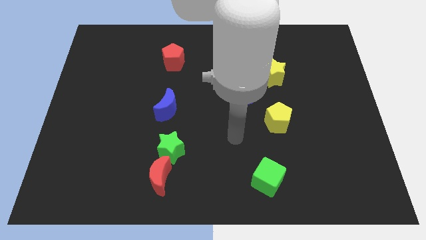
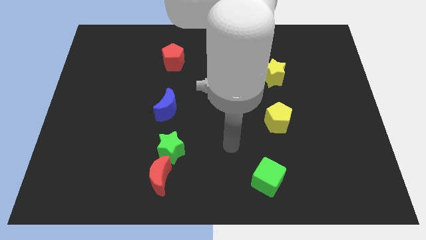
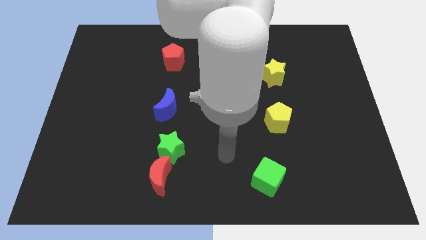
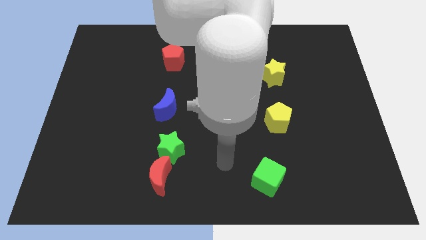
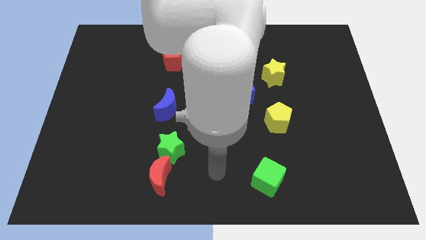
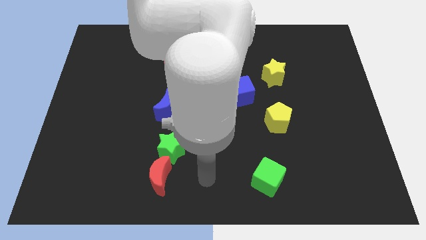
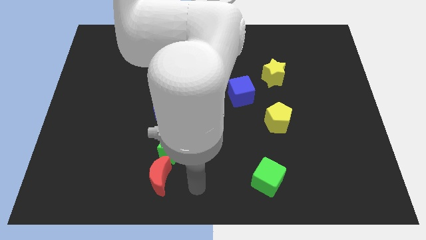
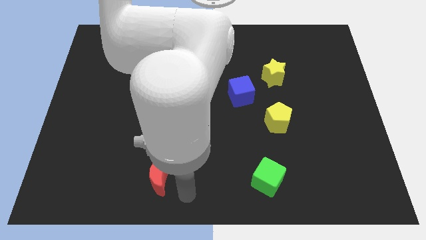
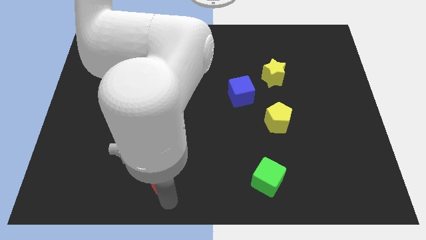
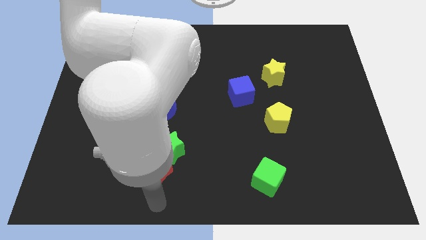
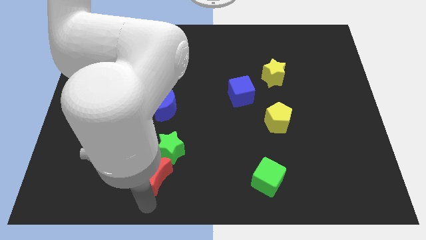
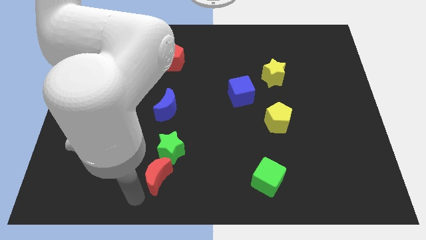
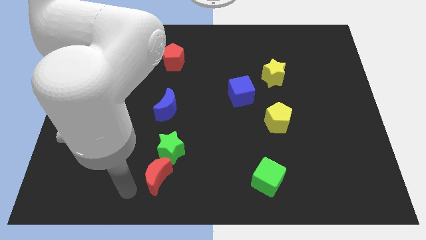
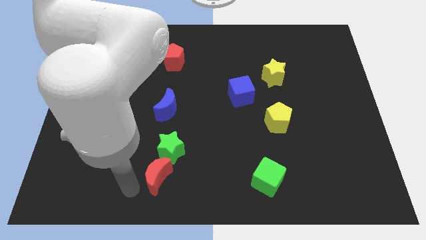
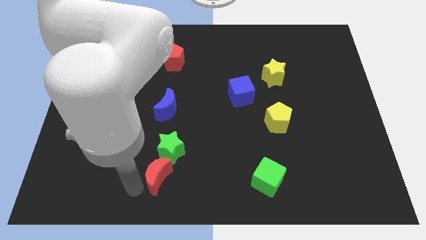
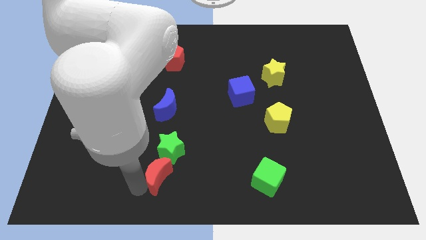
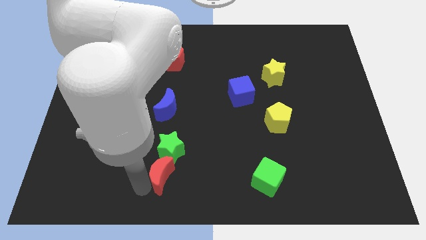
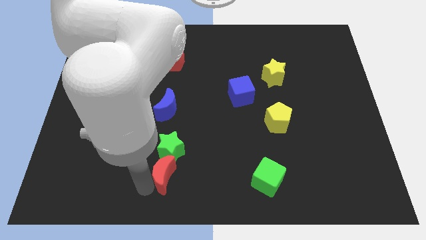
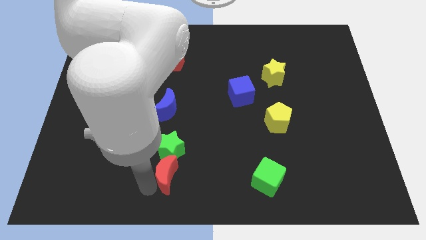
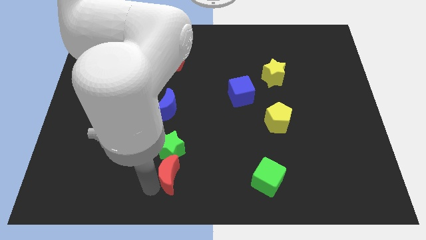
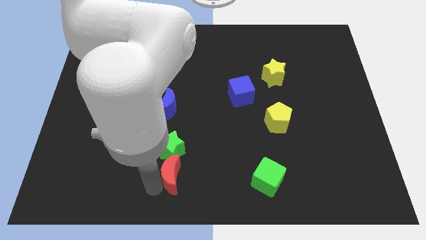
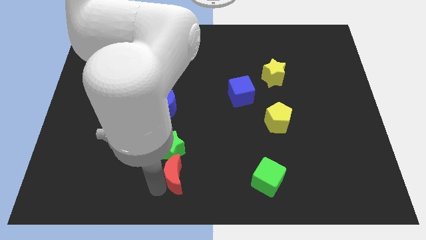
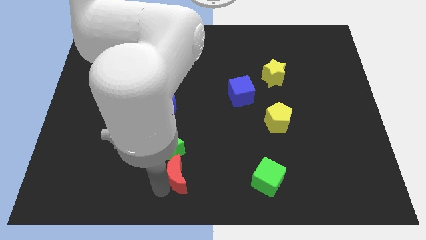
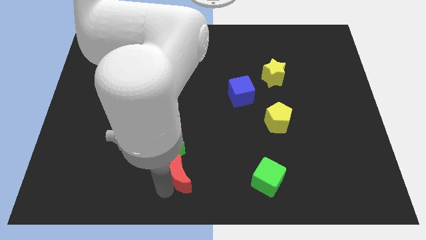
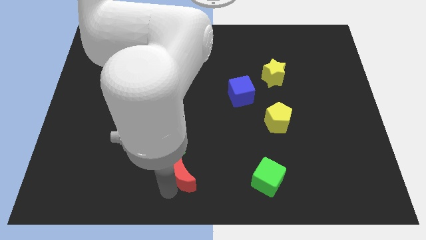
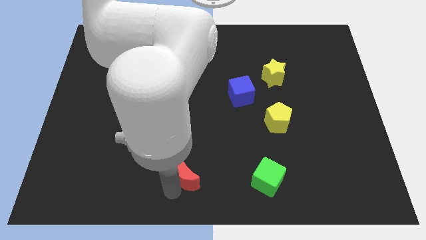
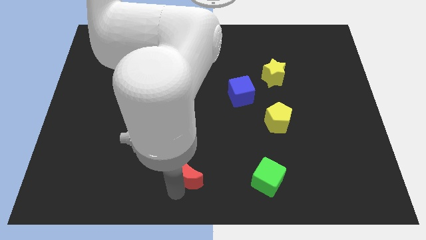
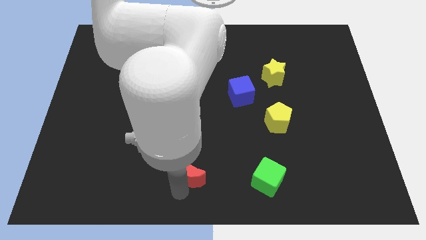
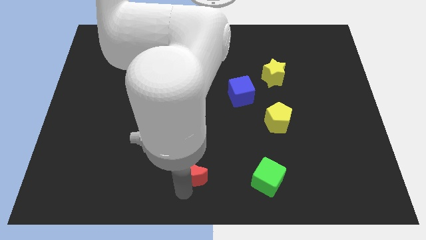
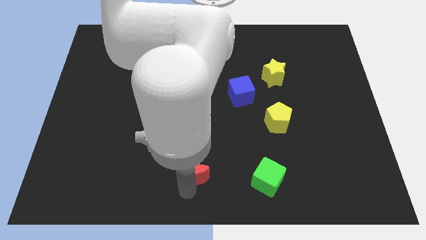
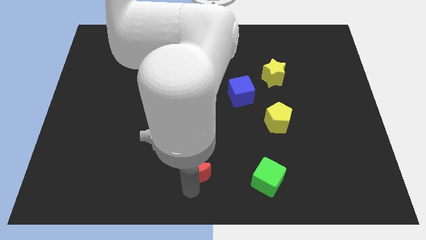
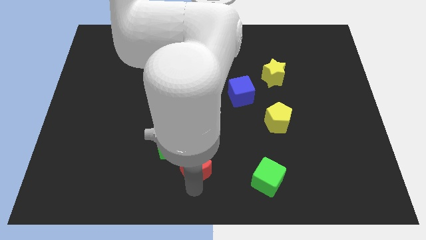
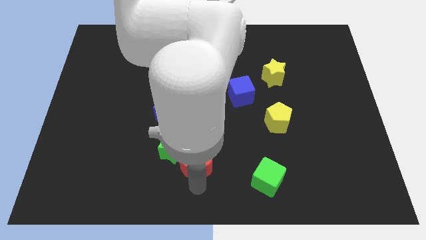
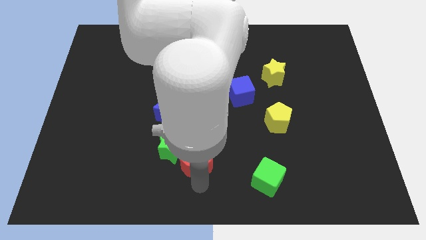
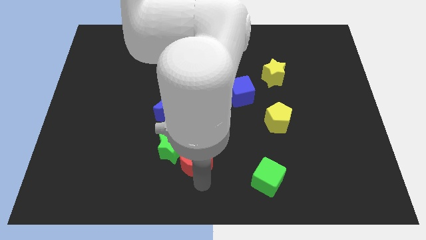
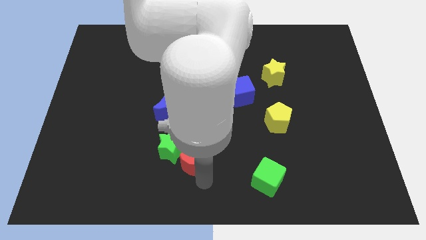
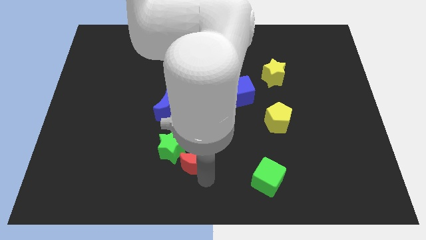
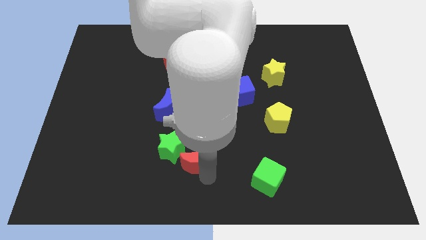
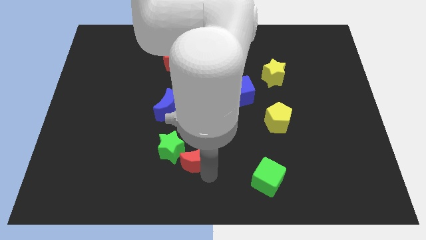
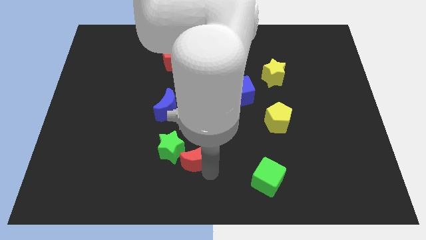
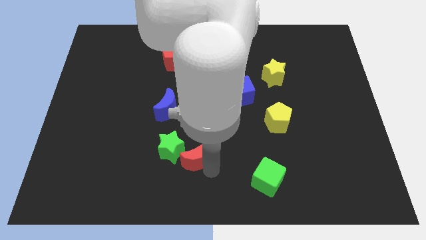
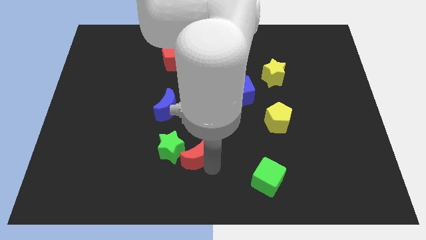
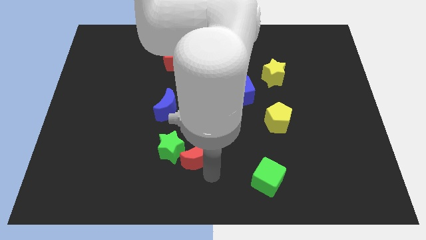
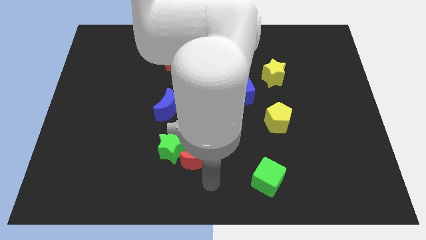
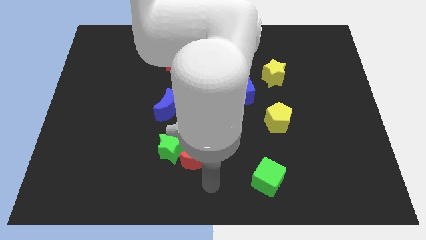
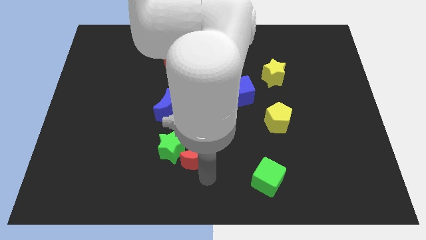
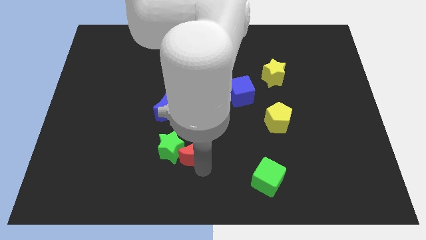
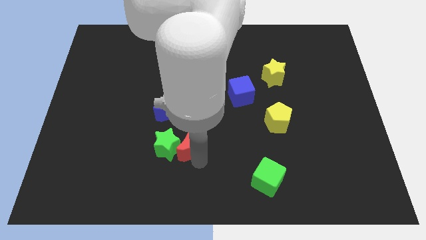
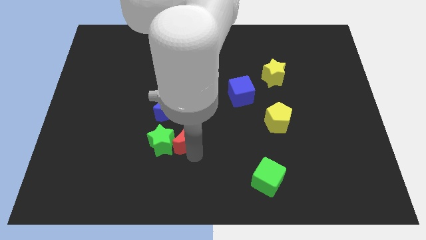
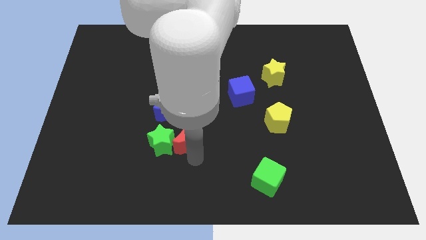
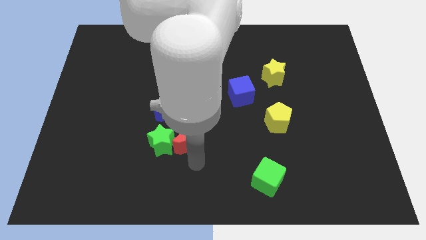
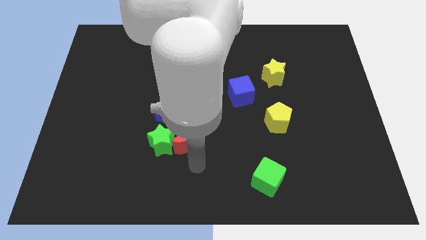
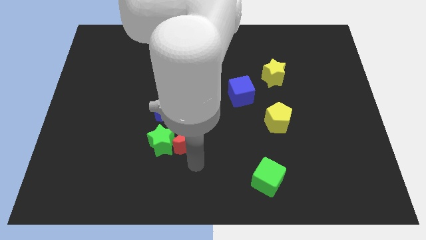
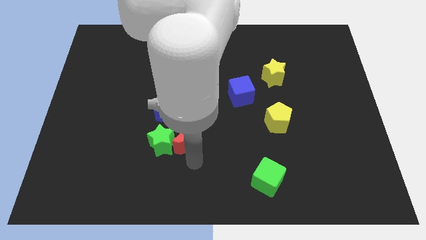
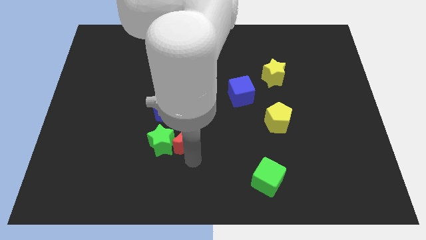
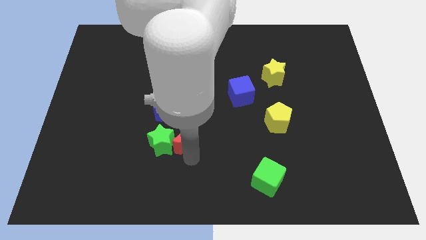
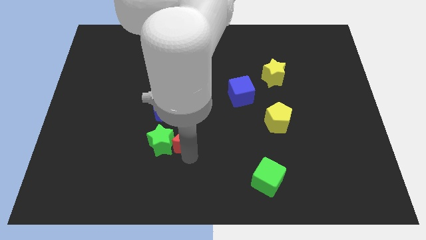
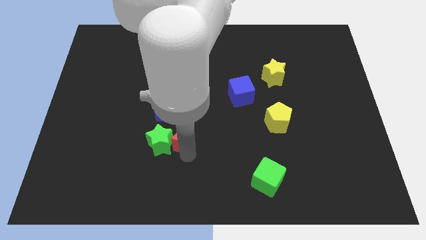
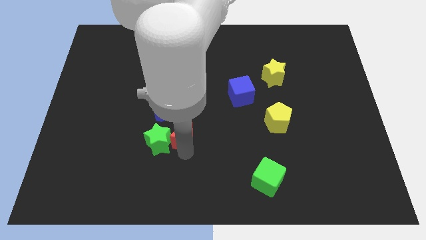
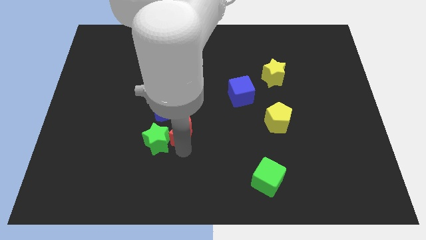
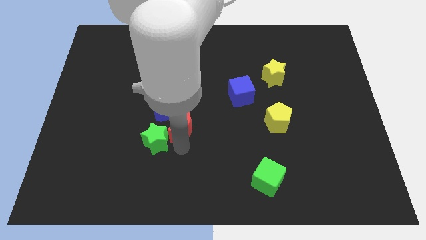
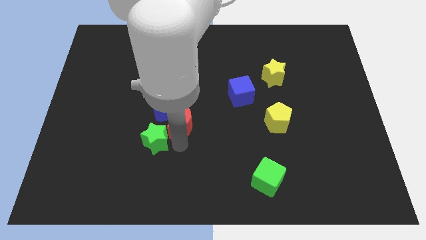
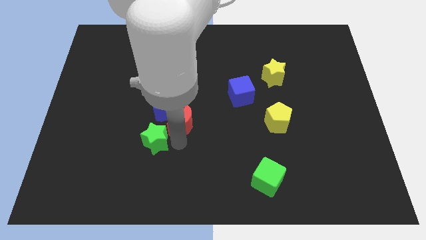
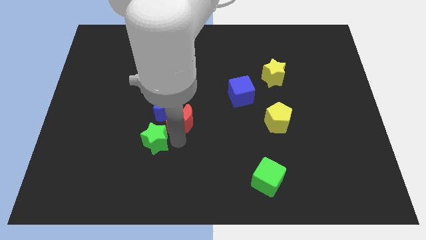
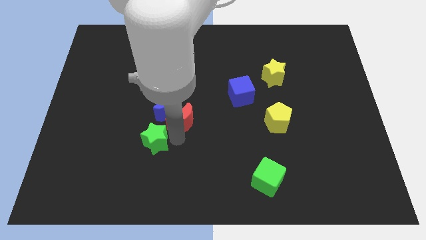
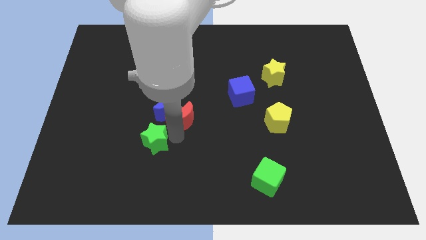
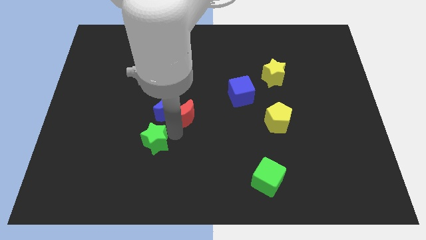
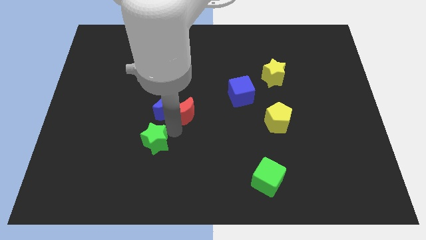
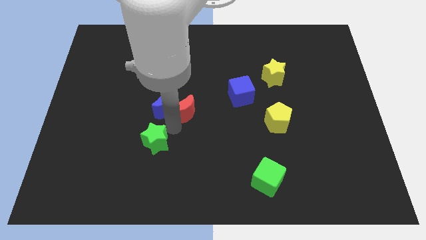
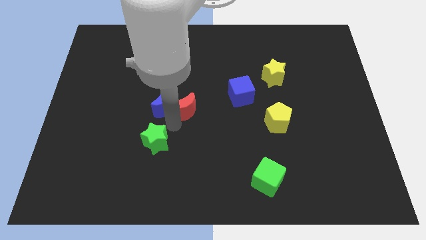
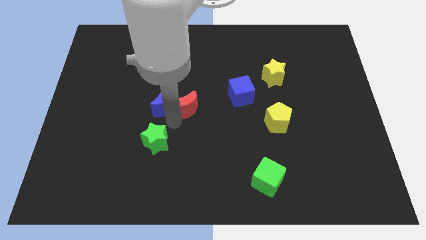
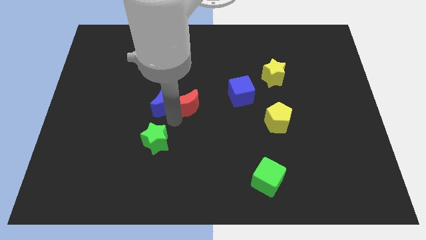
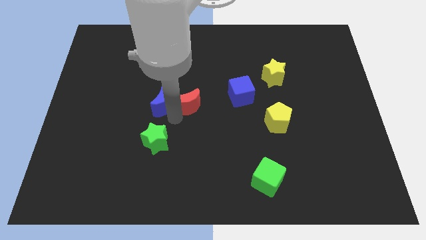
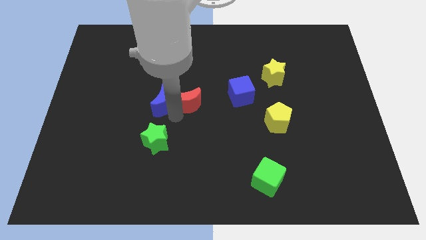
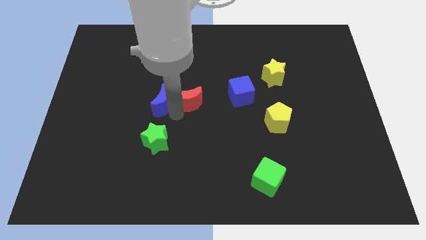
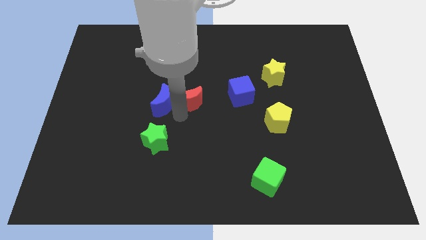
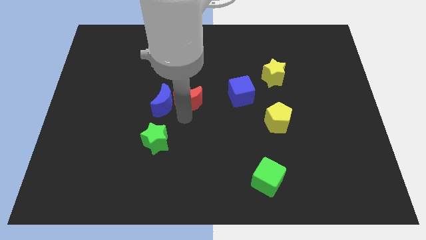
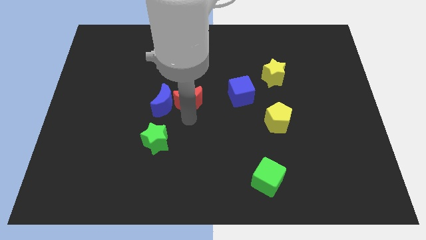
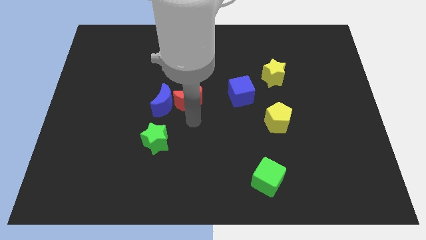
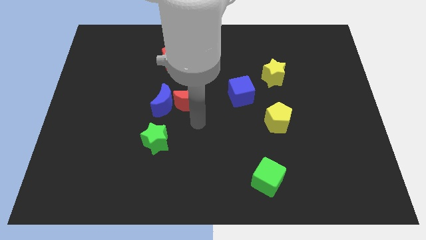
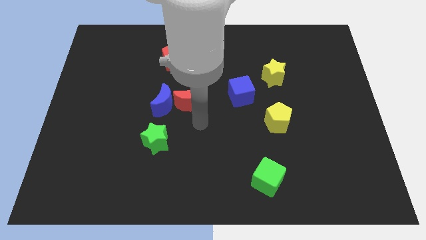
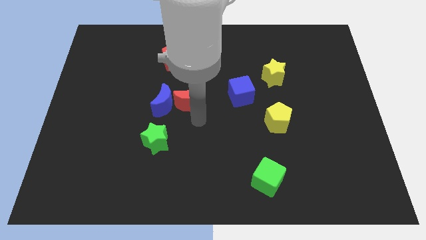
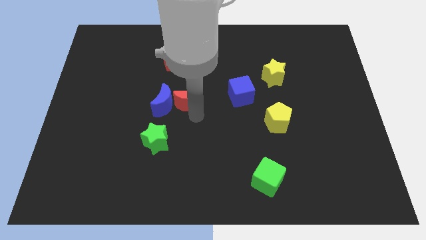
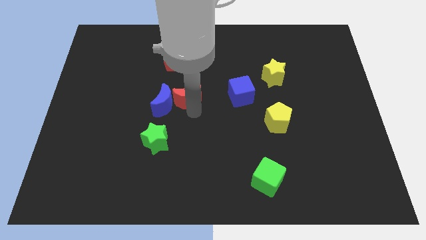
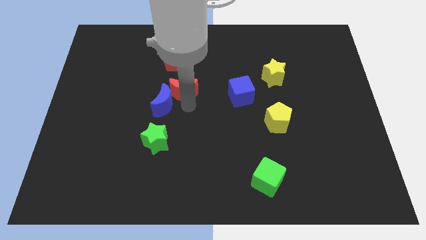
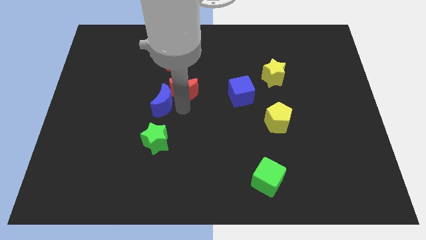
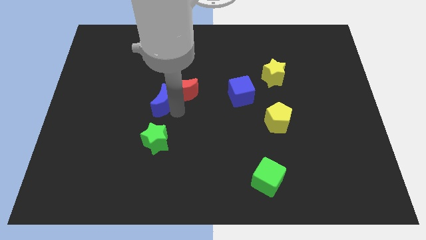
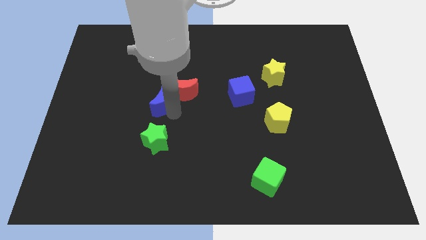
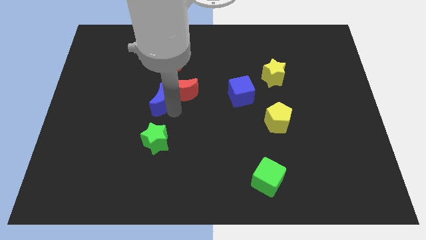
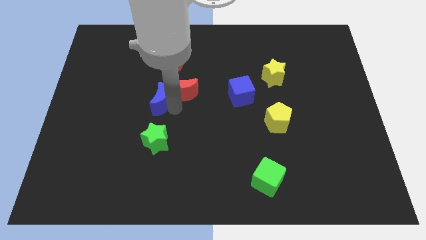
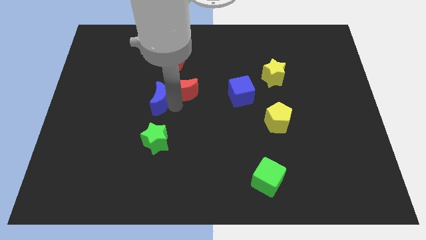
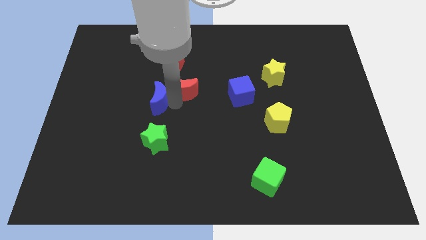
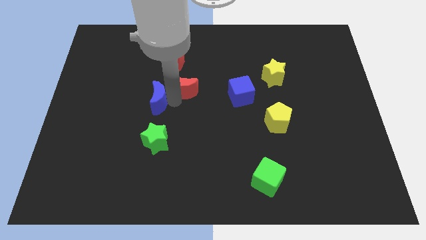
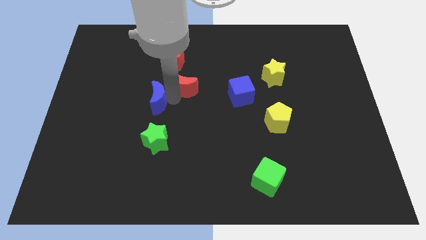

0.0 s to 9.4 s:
slide the red moon to the bottom right side of the red pentagon
